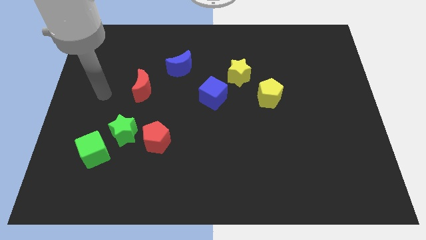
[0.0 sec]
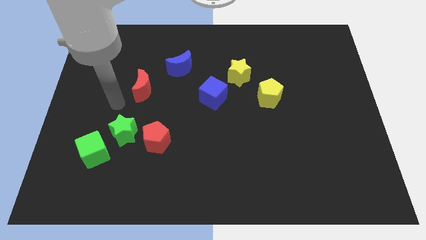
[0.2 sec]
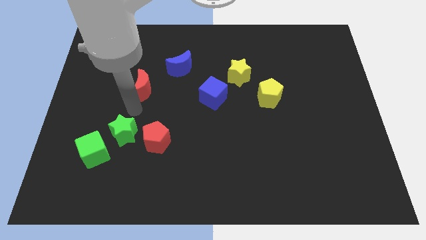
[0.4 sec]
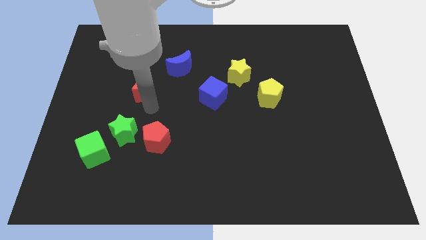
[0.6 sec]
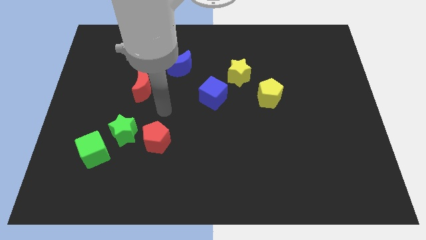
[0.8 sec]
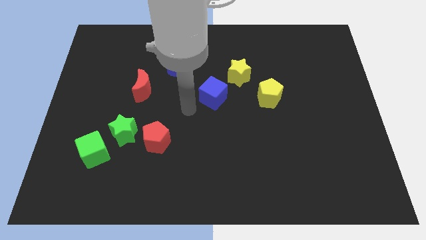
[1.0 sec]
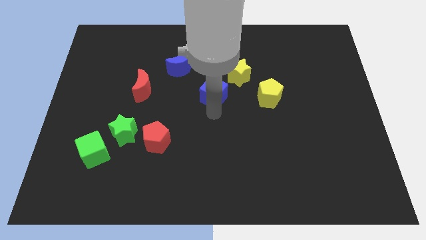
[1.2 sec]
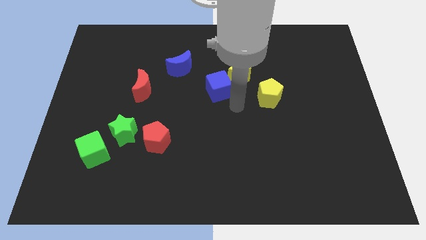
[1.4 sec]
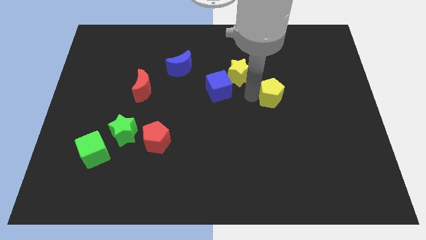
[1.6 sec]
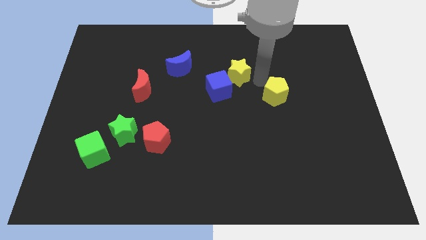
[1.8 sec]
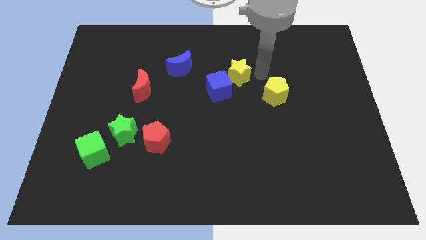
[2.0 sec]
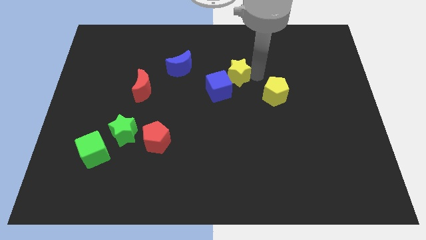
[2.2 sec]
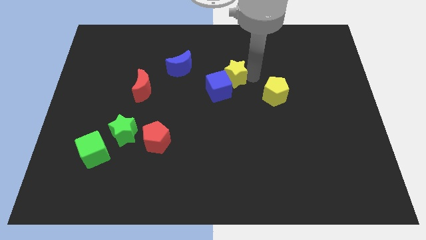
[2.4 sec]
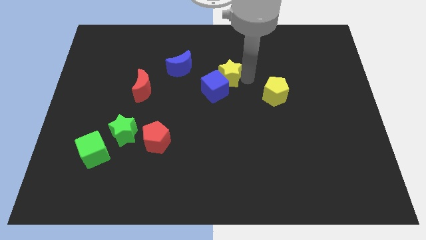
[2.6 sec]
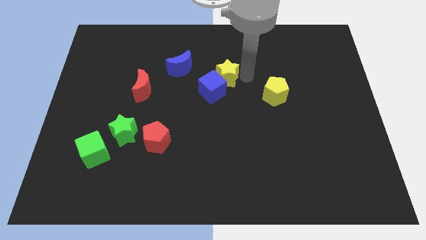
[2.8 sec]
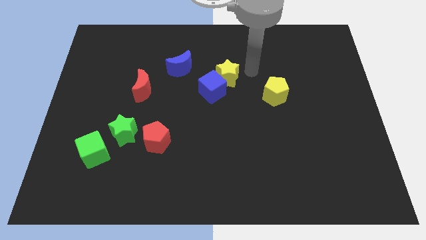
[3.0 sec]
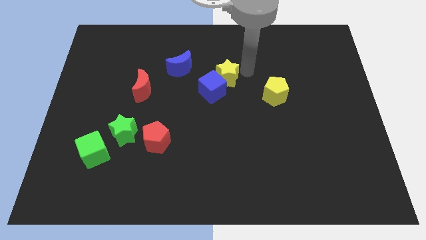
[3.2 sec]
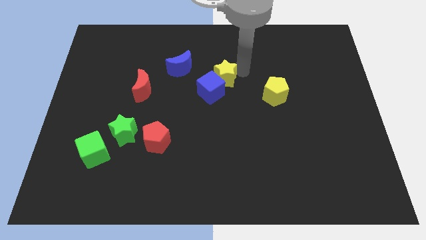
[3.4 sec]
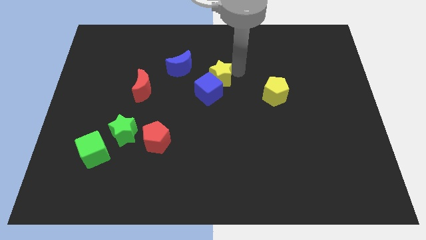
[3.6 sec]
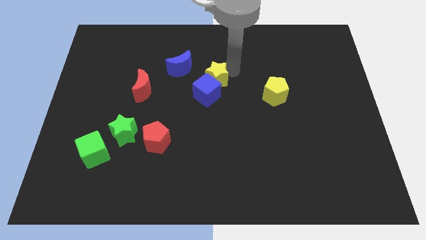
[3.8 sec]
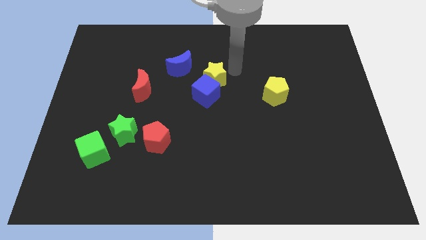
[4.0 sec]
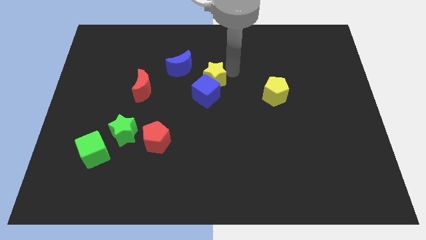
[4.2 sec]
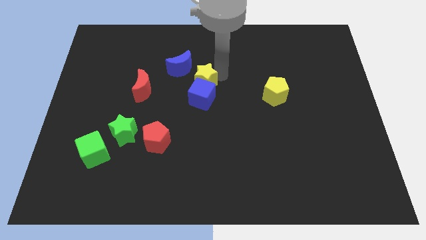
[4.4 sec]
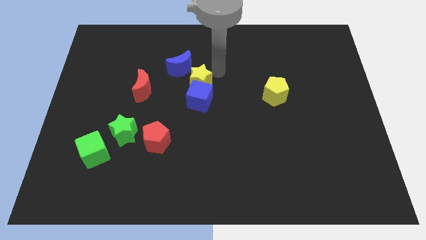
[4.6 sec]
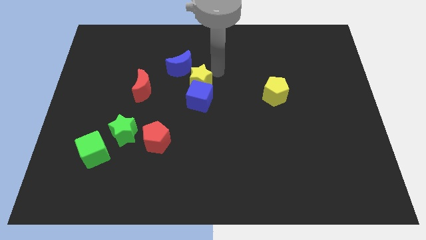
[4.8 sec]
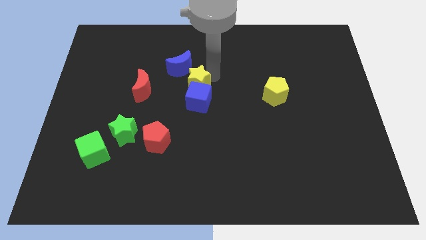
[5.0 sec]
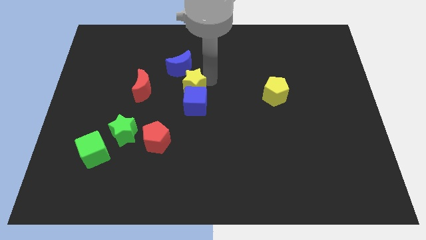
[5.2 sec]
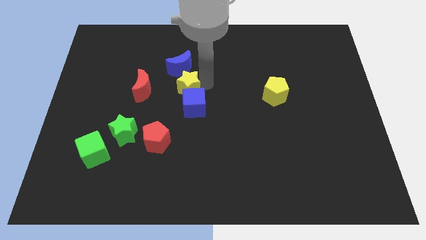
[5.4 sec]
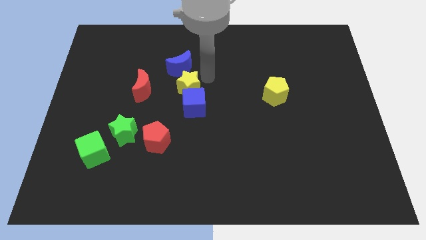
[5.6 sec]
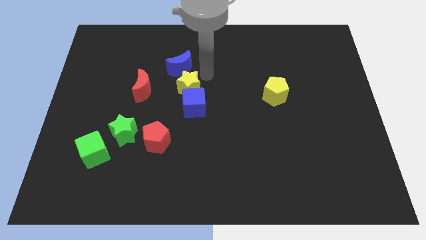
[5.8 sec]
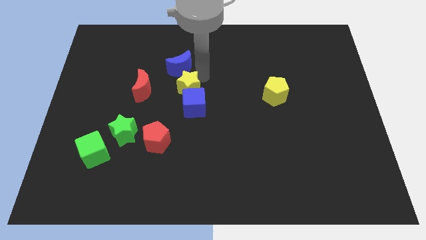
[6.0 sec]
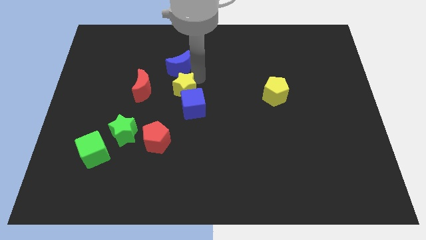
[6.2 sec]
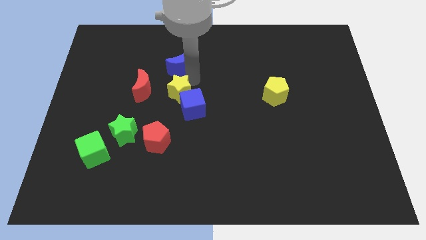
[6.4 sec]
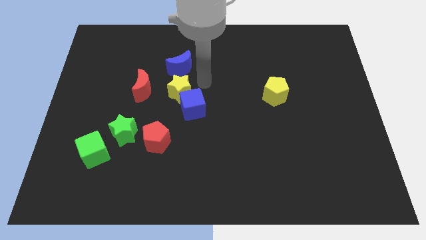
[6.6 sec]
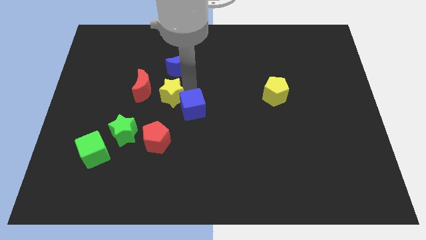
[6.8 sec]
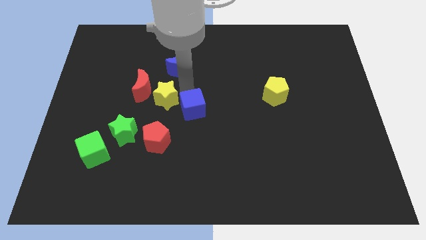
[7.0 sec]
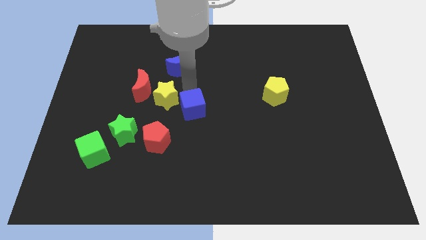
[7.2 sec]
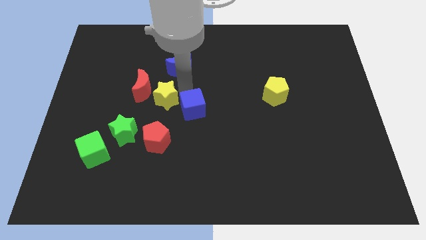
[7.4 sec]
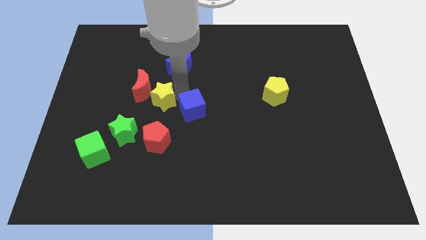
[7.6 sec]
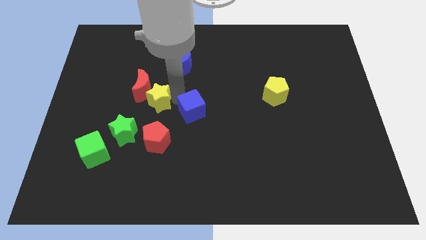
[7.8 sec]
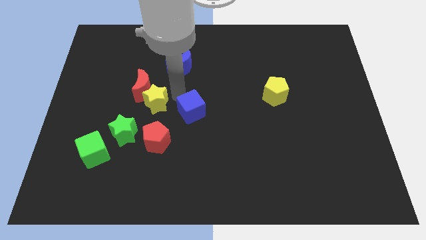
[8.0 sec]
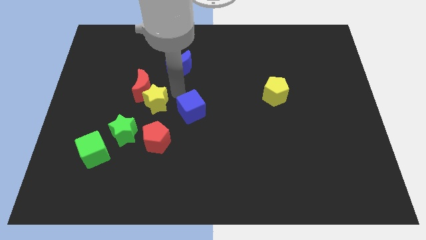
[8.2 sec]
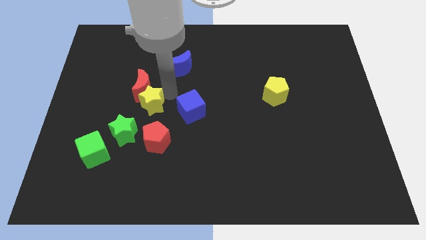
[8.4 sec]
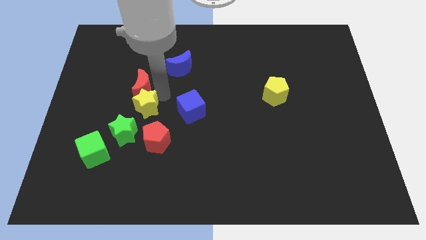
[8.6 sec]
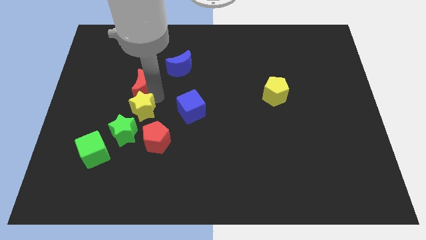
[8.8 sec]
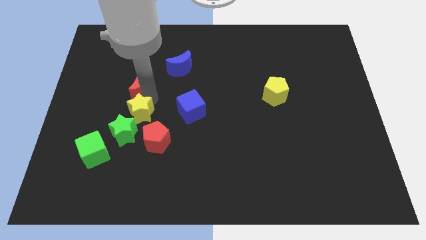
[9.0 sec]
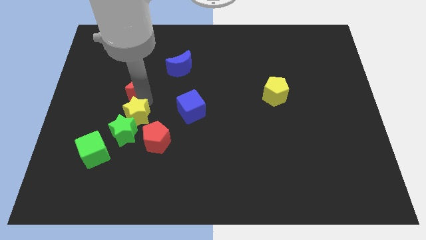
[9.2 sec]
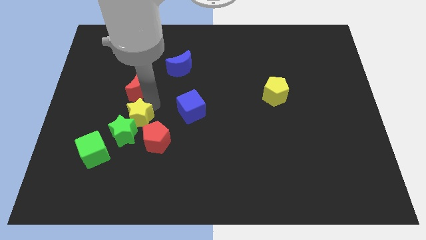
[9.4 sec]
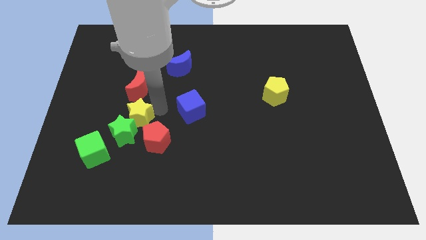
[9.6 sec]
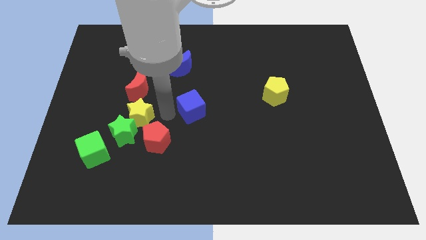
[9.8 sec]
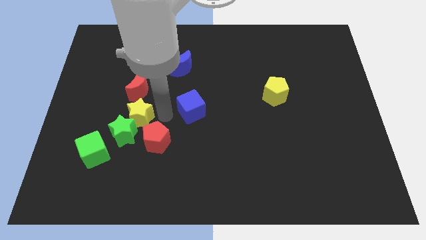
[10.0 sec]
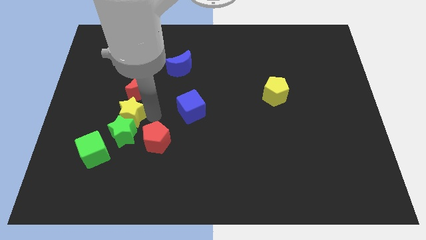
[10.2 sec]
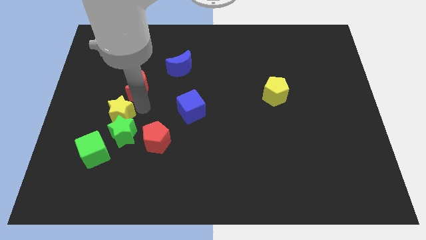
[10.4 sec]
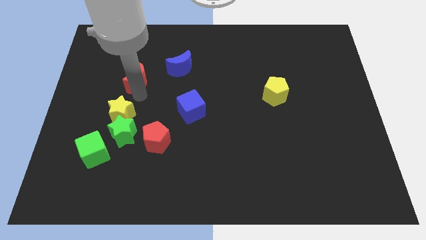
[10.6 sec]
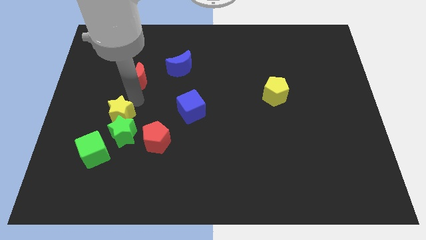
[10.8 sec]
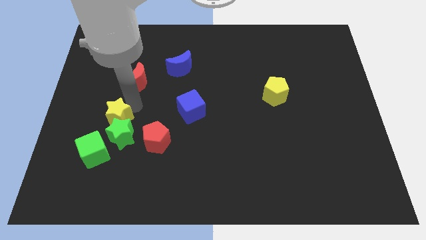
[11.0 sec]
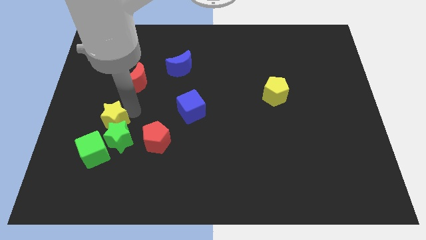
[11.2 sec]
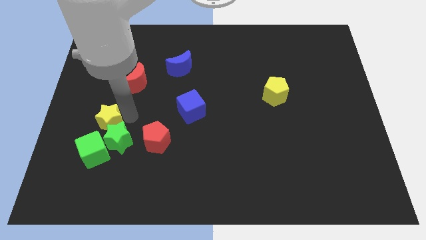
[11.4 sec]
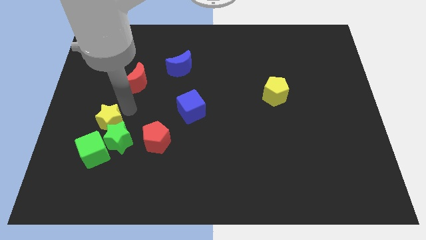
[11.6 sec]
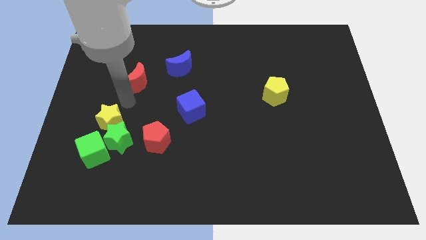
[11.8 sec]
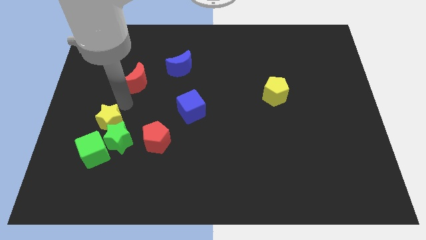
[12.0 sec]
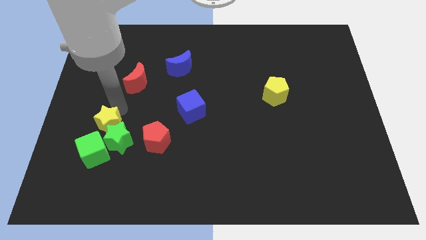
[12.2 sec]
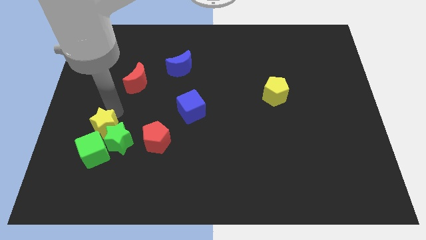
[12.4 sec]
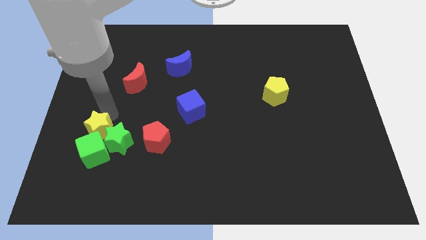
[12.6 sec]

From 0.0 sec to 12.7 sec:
push the yellow star next to the green cube

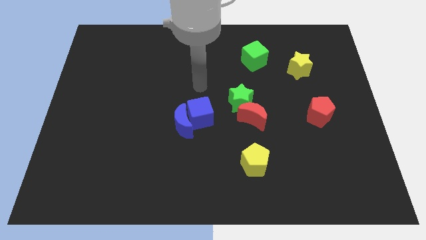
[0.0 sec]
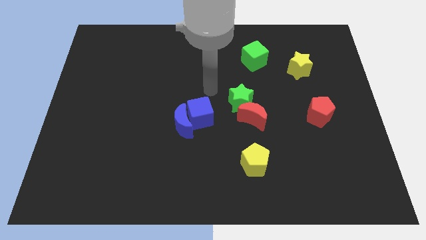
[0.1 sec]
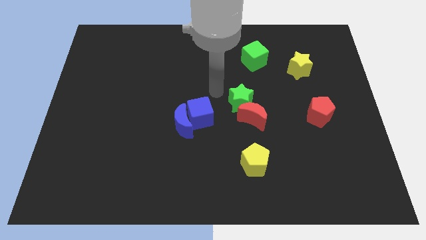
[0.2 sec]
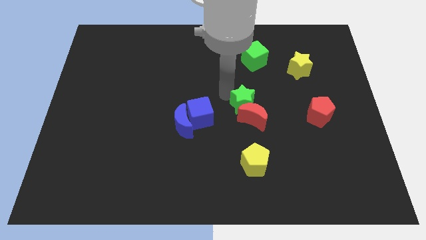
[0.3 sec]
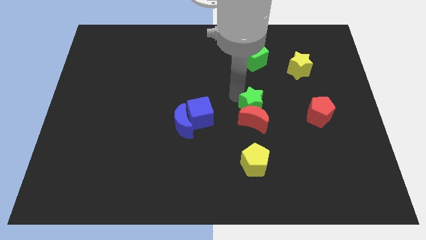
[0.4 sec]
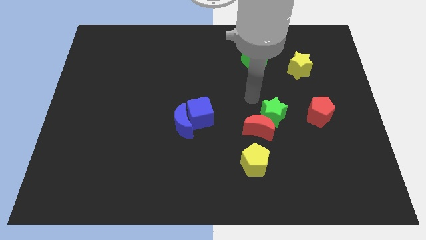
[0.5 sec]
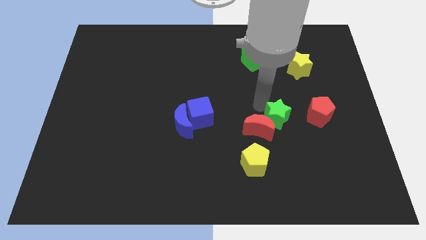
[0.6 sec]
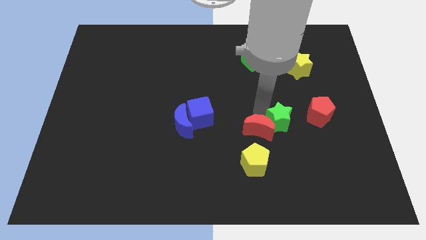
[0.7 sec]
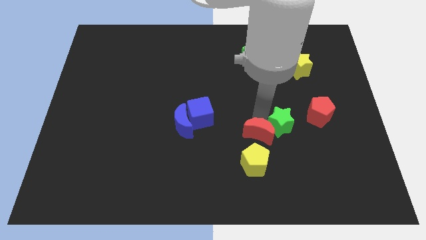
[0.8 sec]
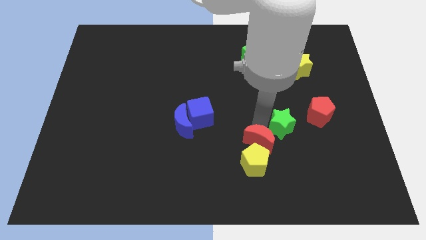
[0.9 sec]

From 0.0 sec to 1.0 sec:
push the red moon next to the yellow pentagon
